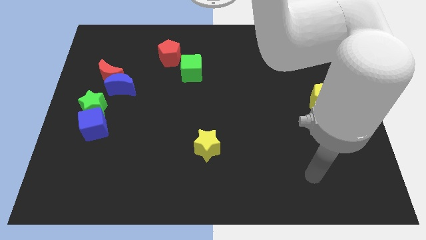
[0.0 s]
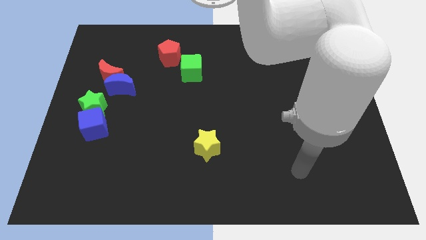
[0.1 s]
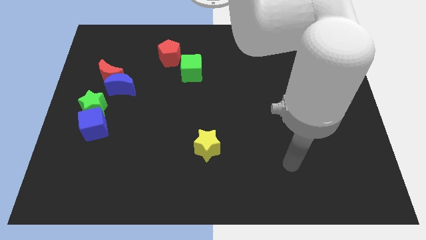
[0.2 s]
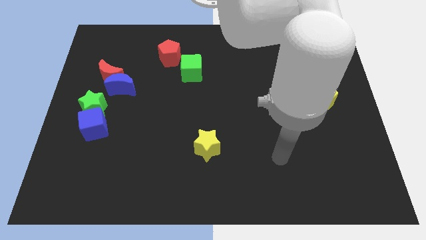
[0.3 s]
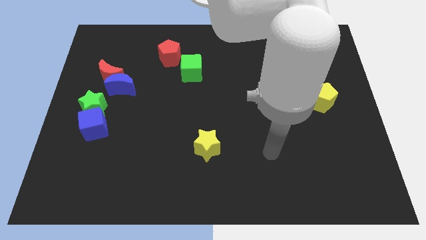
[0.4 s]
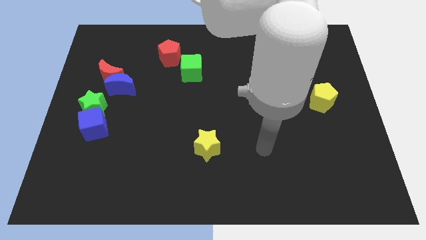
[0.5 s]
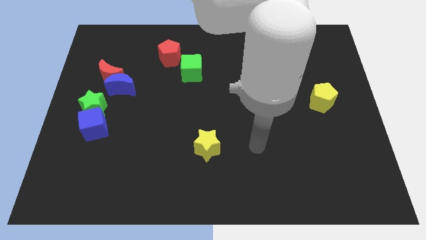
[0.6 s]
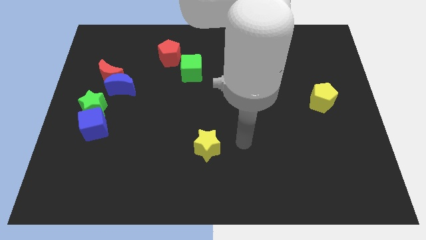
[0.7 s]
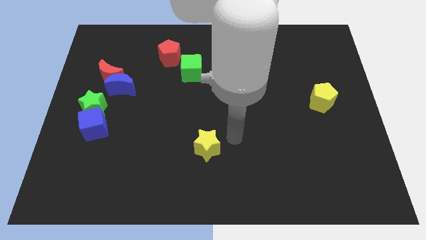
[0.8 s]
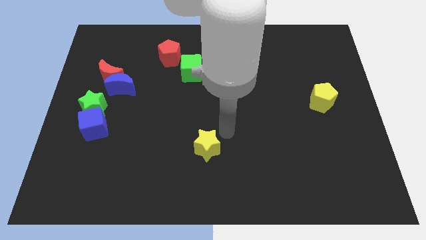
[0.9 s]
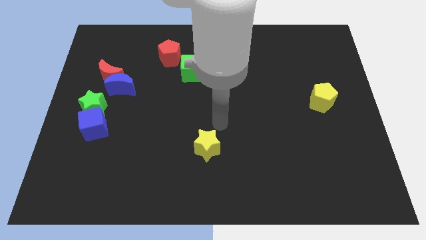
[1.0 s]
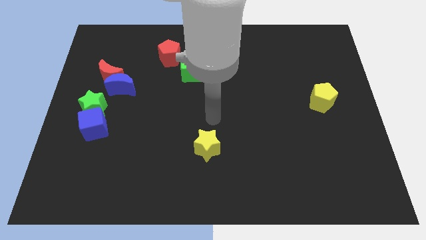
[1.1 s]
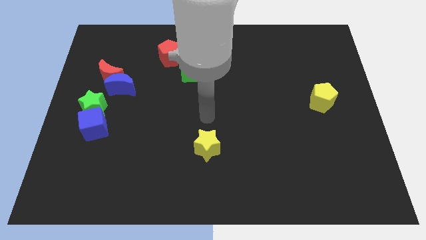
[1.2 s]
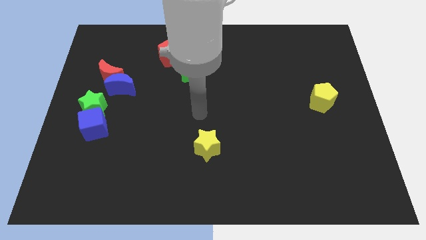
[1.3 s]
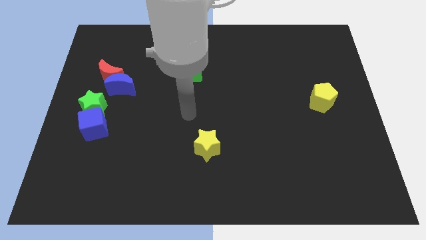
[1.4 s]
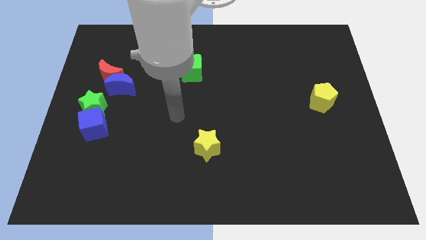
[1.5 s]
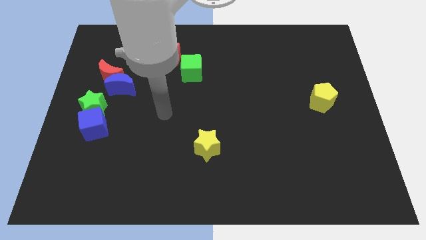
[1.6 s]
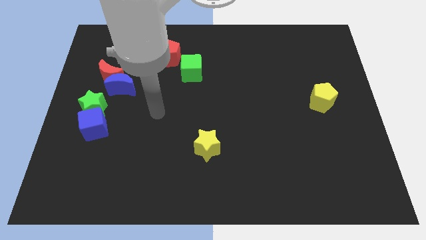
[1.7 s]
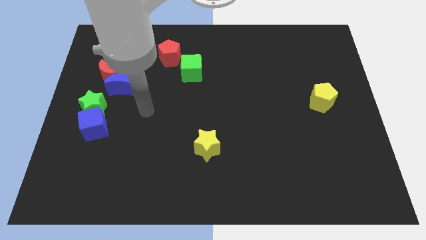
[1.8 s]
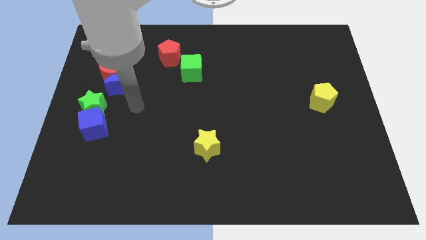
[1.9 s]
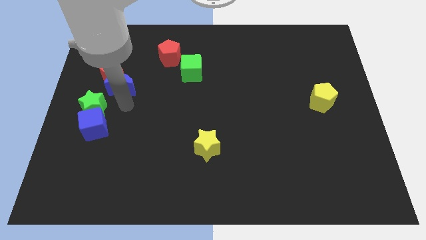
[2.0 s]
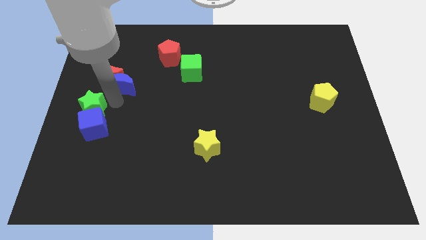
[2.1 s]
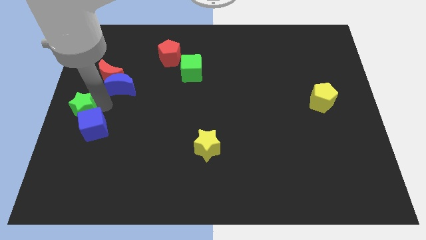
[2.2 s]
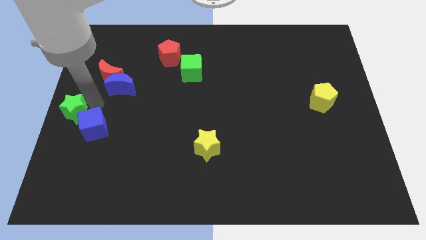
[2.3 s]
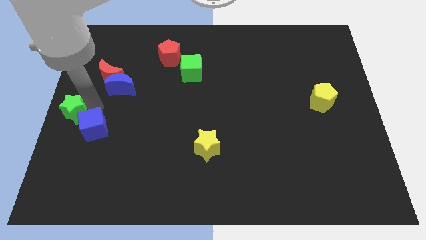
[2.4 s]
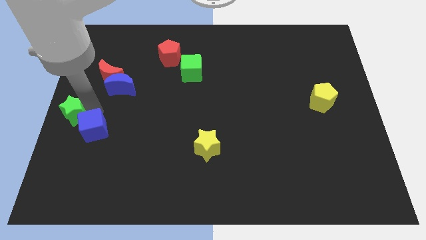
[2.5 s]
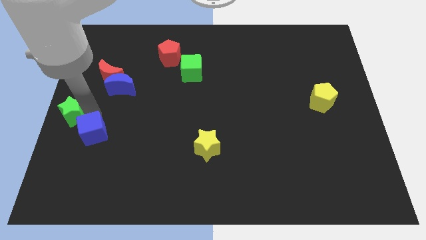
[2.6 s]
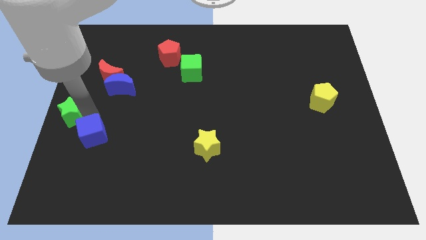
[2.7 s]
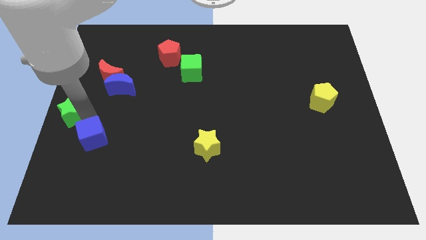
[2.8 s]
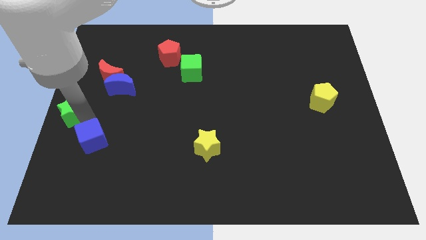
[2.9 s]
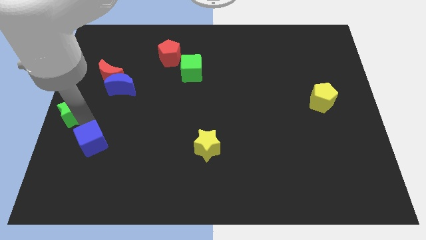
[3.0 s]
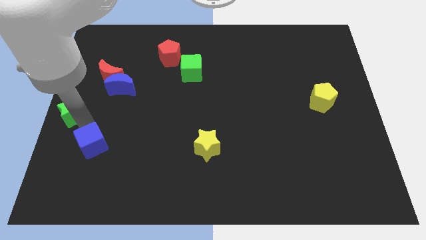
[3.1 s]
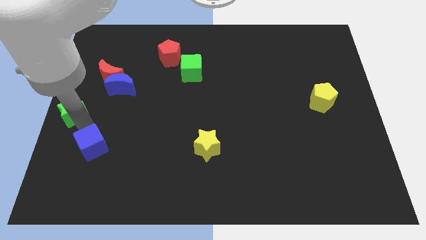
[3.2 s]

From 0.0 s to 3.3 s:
pull the blue cube apart from the green star

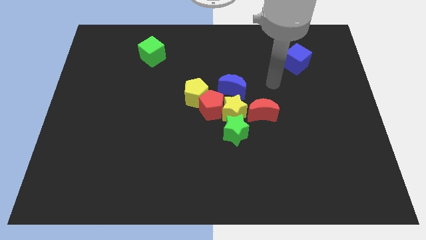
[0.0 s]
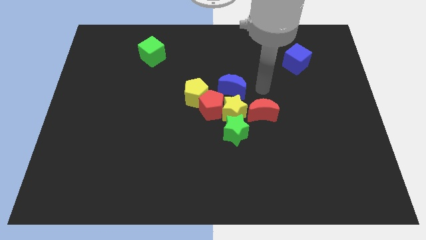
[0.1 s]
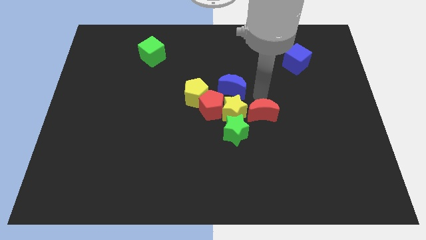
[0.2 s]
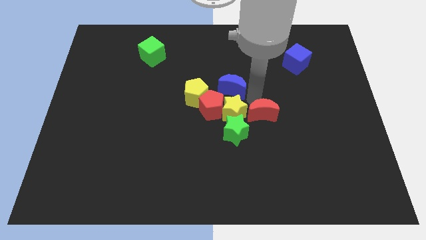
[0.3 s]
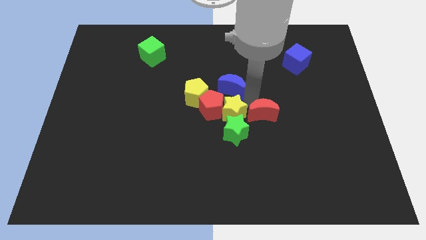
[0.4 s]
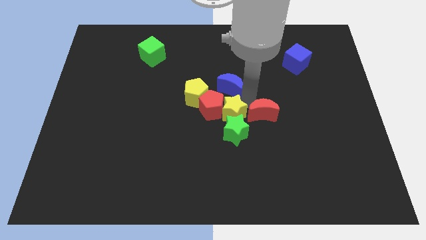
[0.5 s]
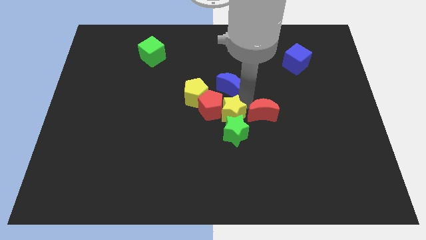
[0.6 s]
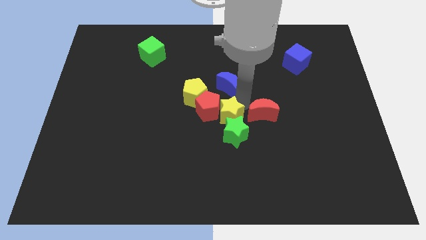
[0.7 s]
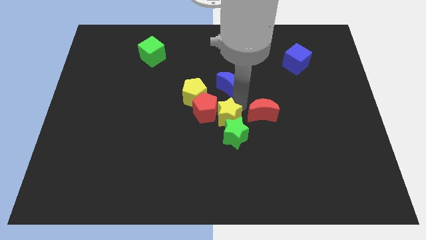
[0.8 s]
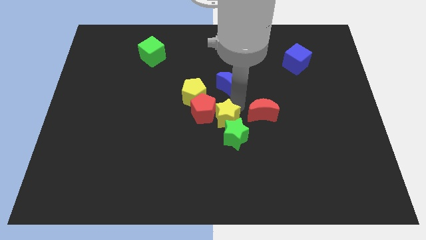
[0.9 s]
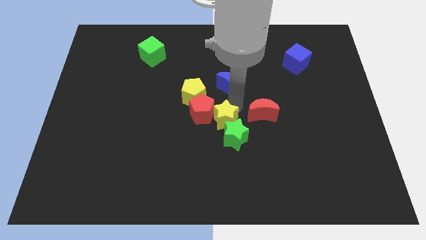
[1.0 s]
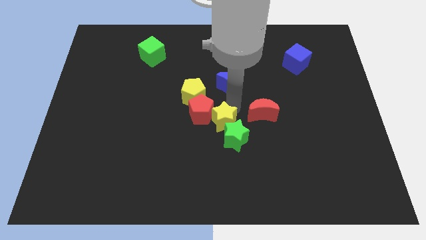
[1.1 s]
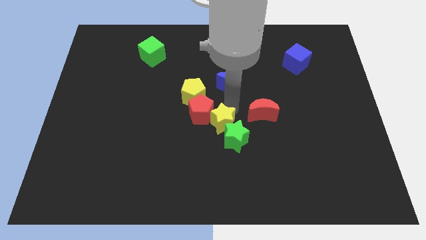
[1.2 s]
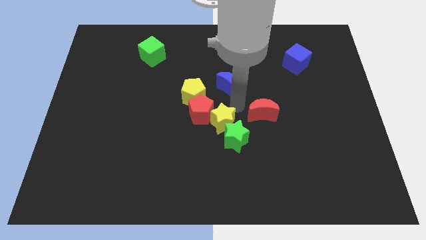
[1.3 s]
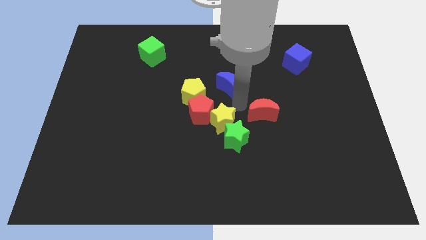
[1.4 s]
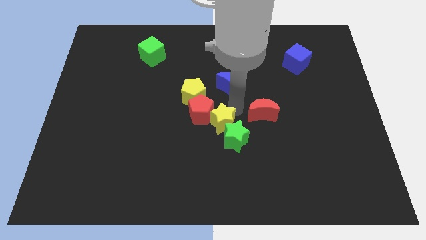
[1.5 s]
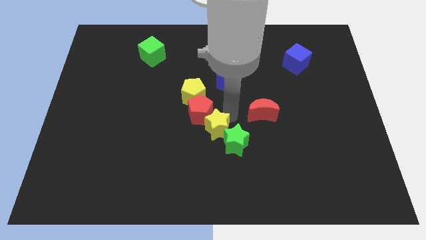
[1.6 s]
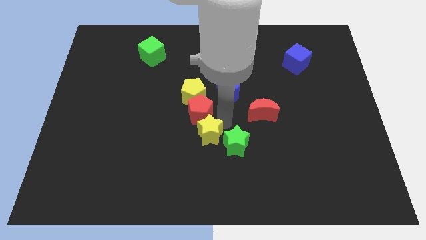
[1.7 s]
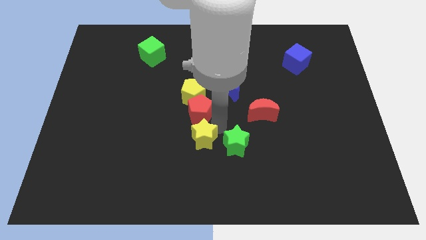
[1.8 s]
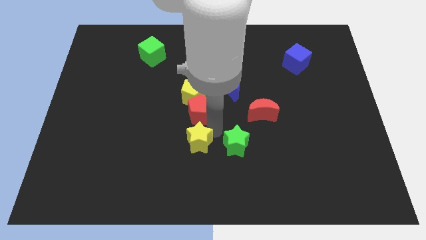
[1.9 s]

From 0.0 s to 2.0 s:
separate the yellow star from the group of blocks

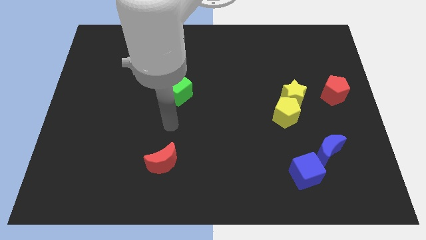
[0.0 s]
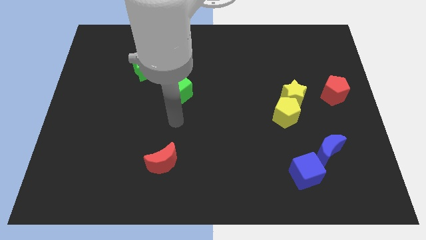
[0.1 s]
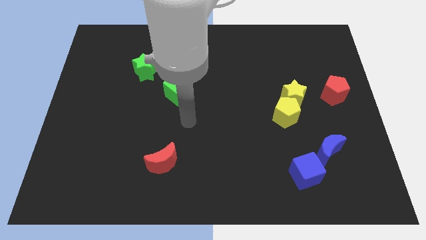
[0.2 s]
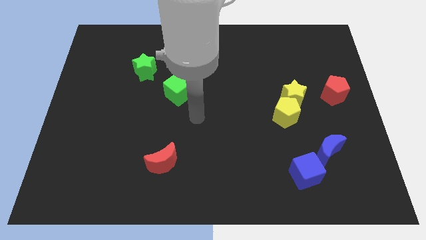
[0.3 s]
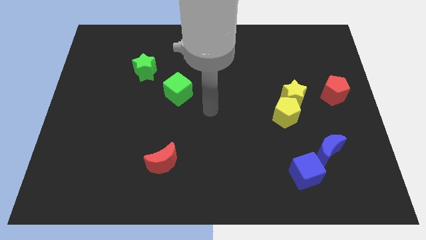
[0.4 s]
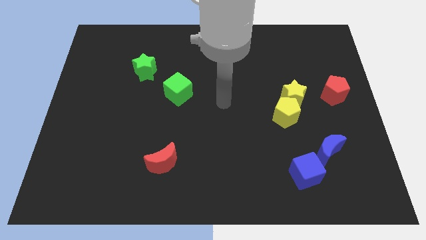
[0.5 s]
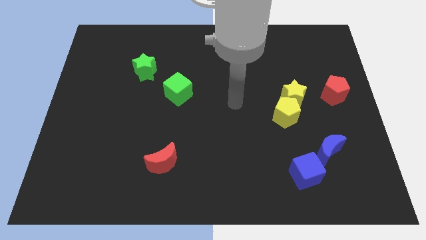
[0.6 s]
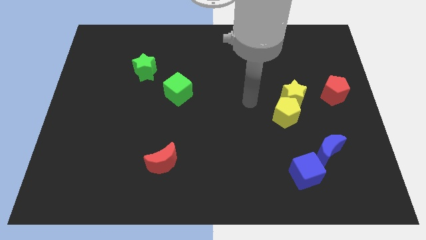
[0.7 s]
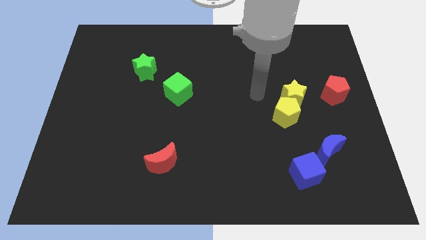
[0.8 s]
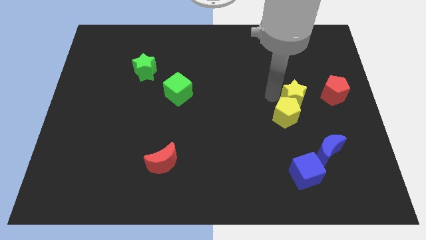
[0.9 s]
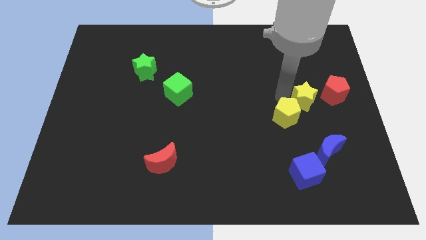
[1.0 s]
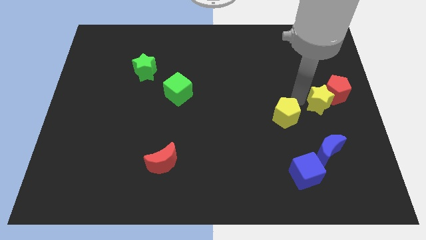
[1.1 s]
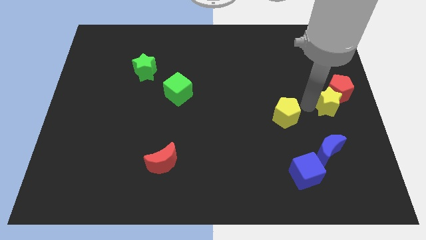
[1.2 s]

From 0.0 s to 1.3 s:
separate the yellow pentagon from the yellow star

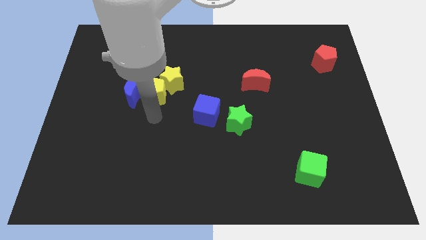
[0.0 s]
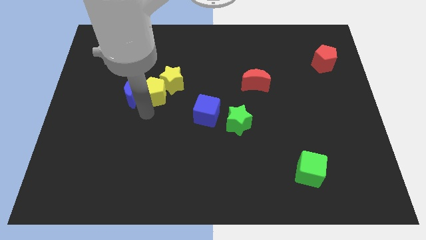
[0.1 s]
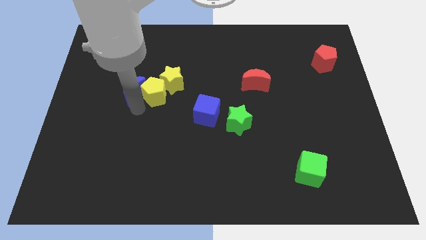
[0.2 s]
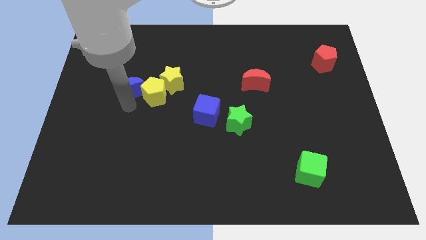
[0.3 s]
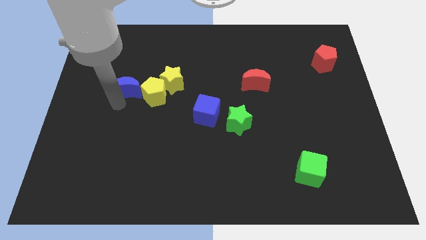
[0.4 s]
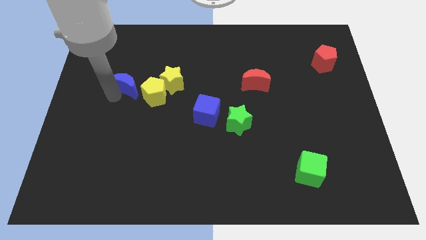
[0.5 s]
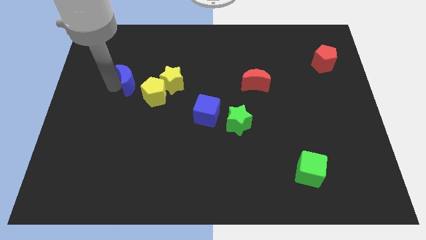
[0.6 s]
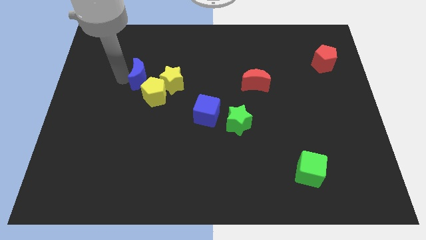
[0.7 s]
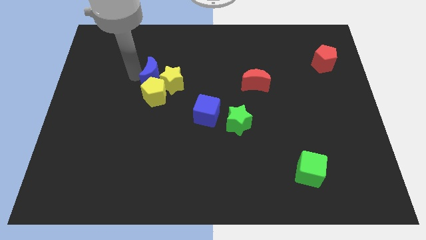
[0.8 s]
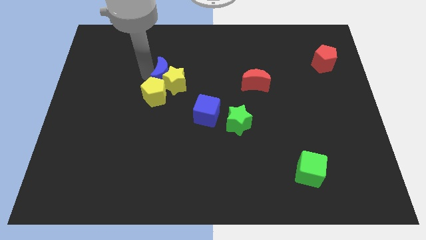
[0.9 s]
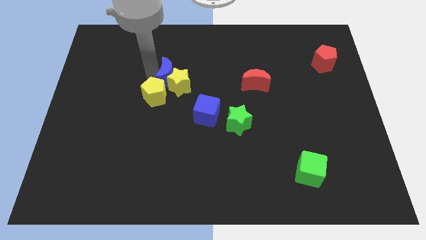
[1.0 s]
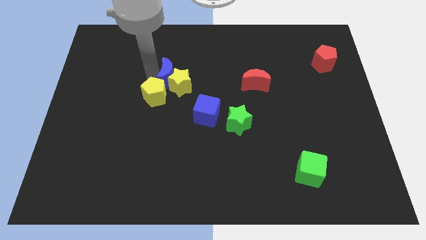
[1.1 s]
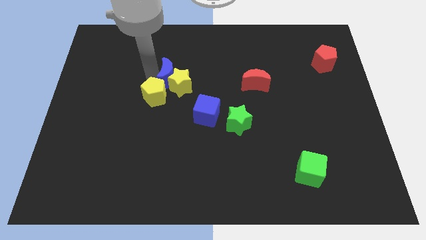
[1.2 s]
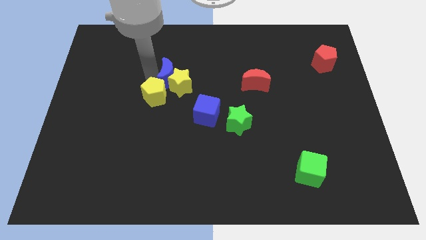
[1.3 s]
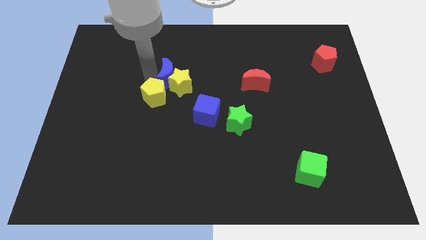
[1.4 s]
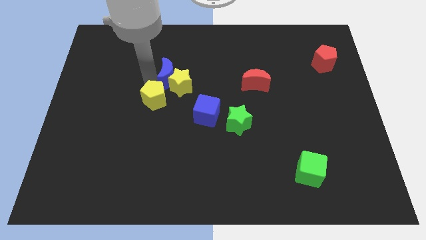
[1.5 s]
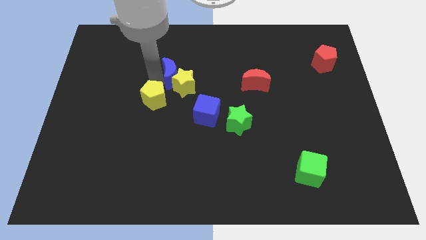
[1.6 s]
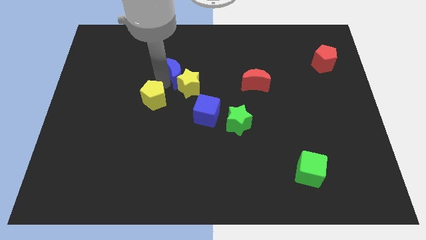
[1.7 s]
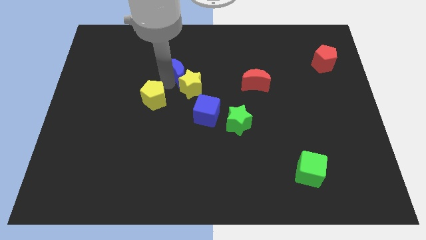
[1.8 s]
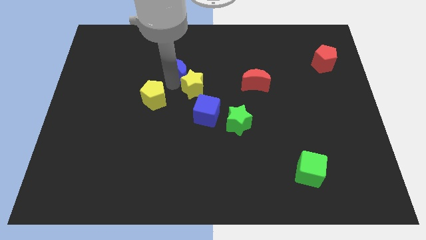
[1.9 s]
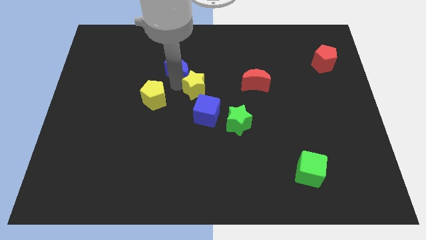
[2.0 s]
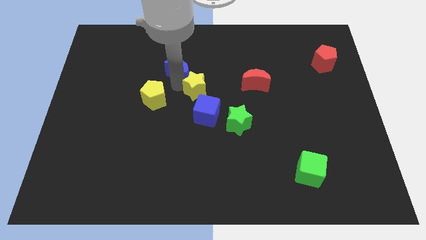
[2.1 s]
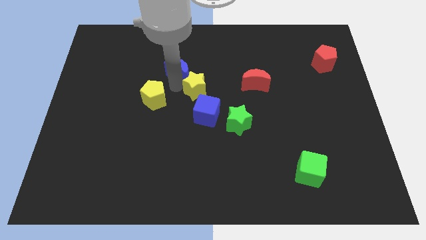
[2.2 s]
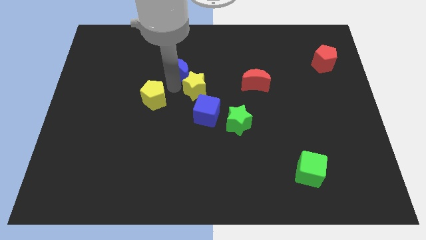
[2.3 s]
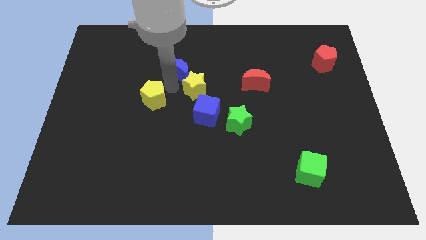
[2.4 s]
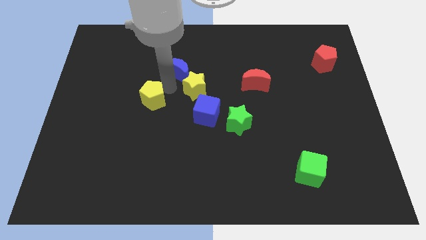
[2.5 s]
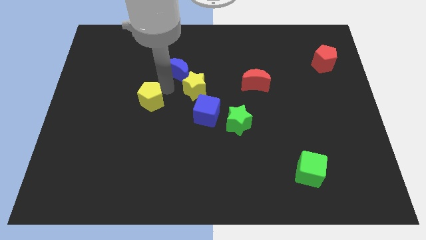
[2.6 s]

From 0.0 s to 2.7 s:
pull the yellow pentagon apart from the blue moon and yellow star

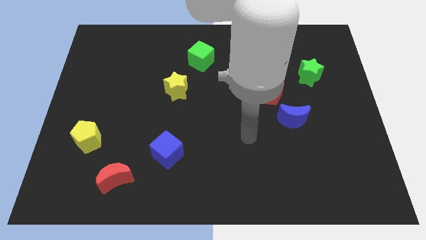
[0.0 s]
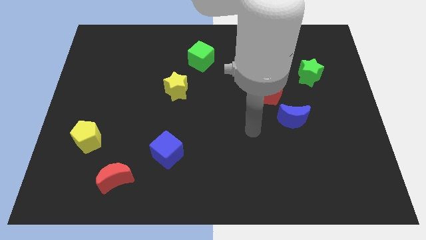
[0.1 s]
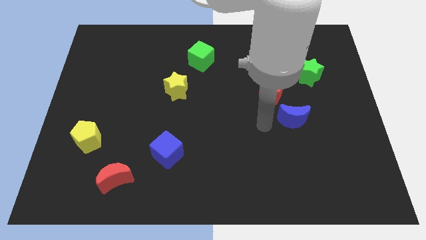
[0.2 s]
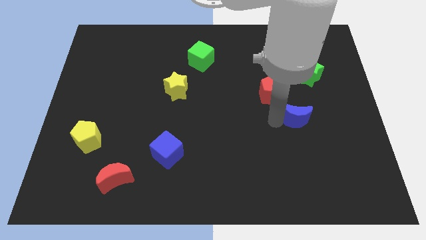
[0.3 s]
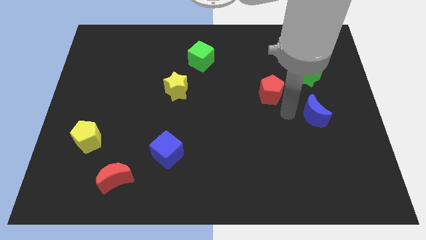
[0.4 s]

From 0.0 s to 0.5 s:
pull the red pentagon apart from the blue moon
